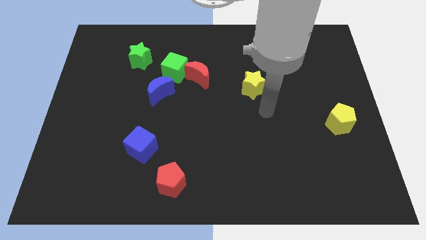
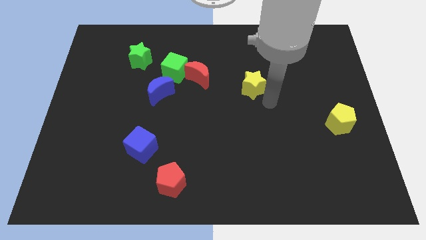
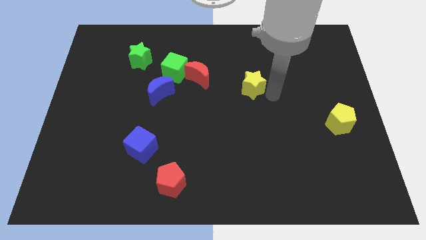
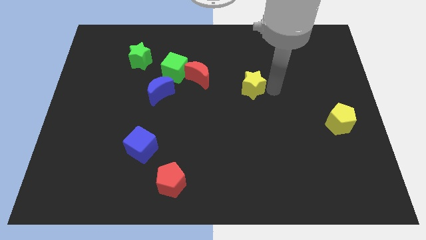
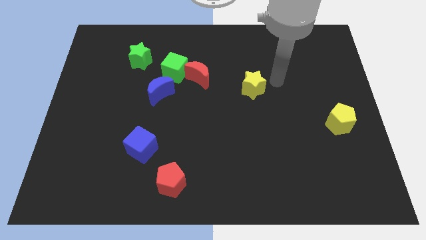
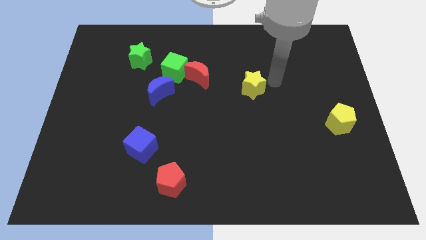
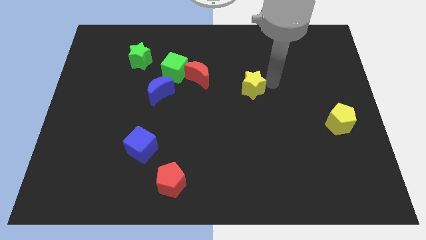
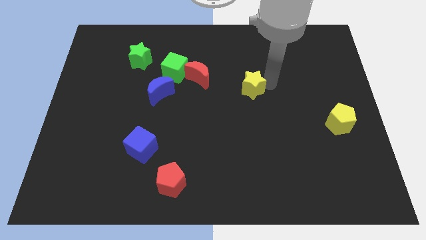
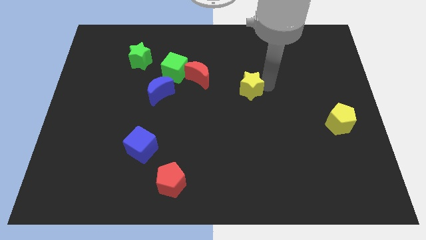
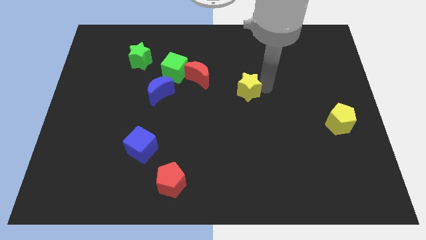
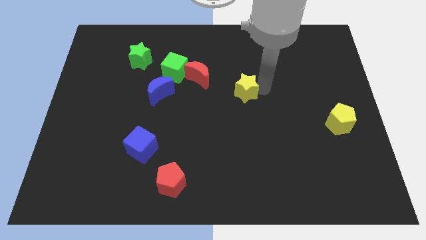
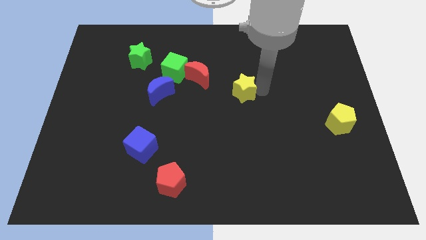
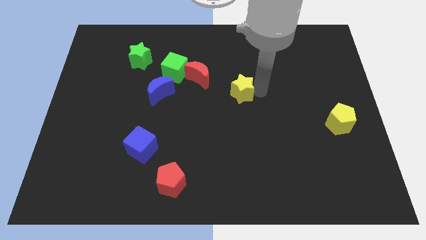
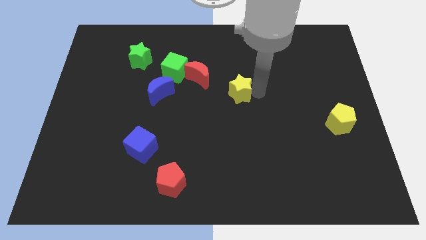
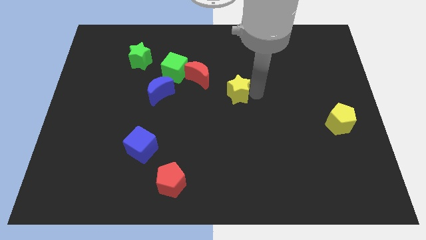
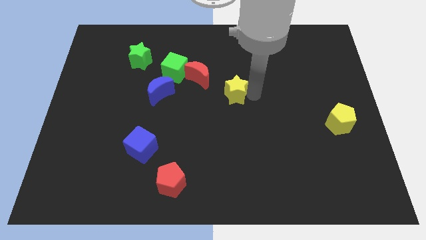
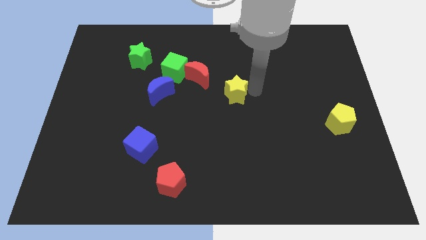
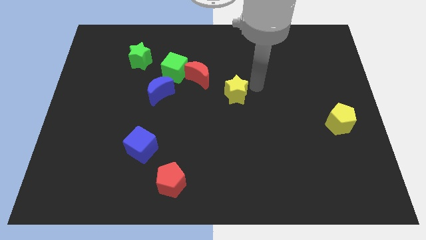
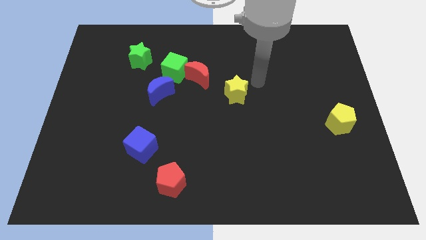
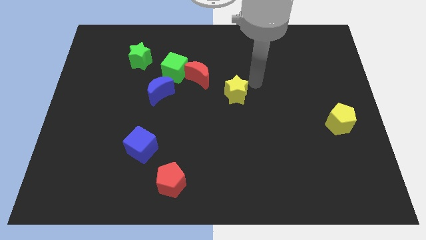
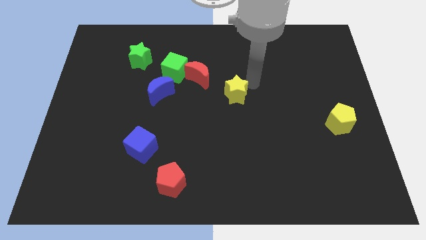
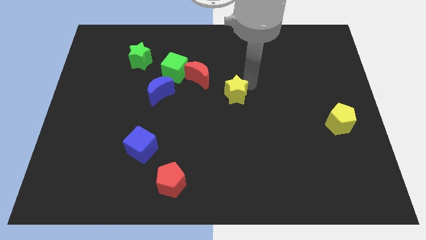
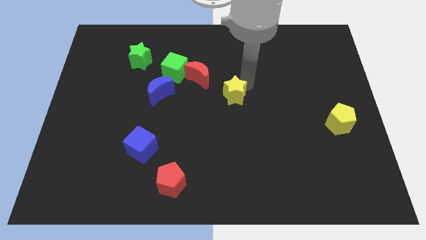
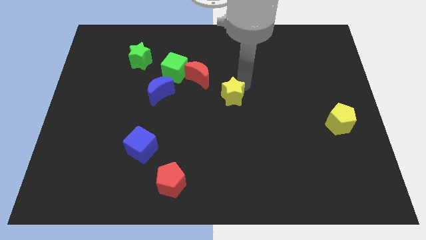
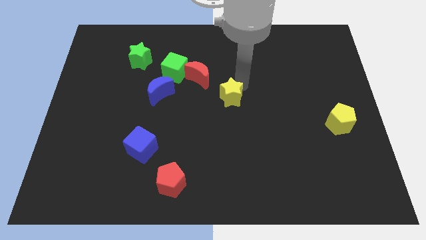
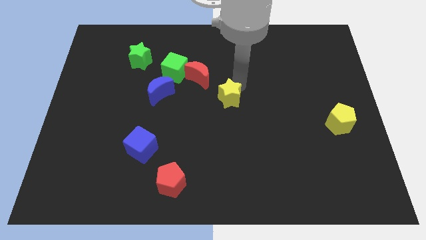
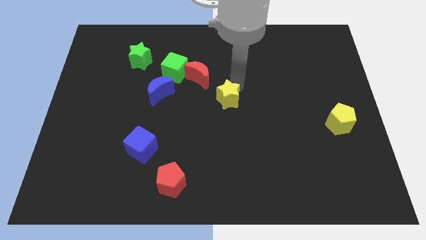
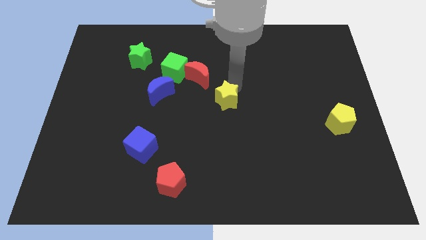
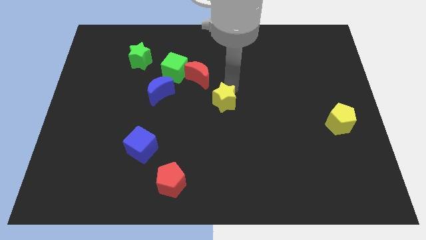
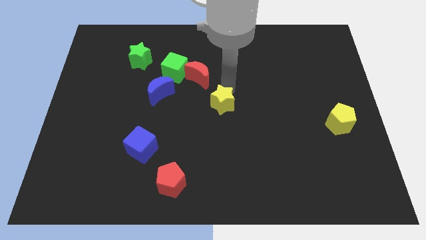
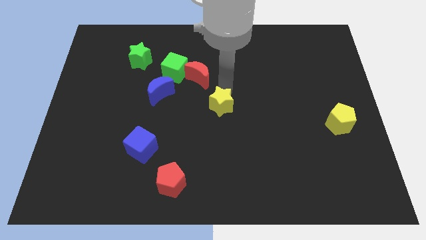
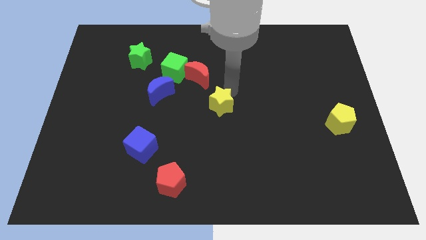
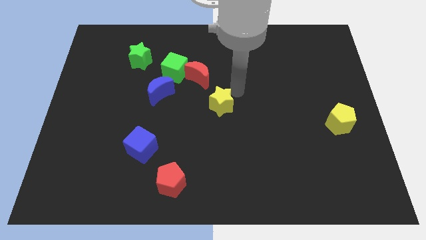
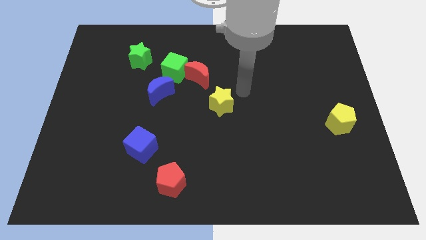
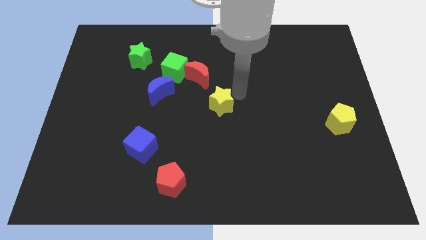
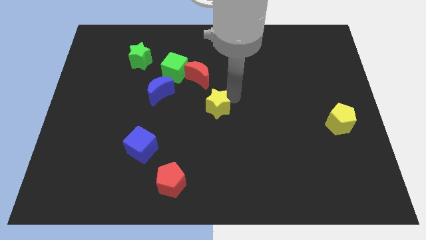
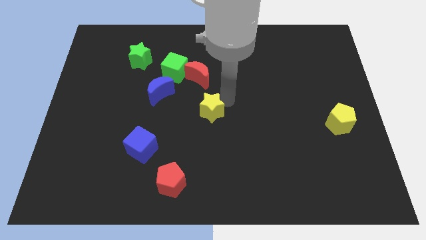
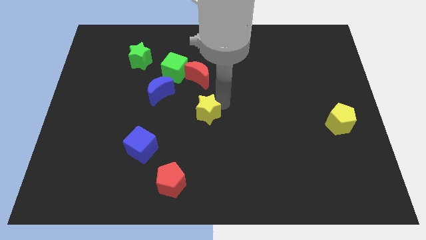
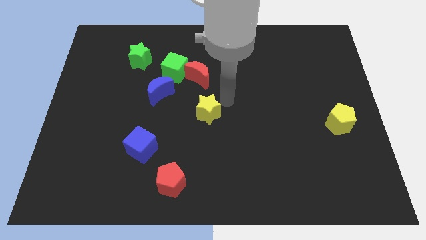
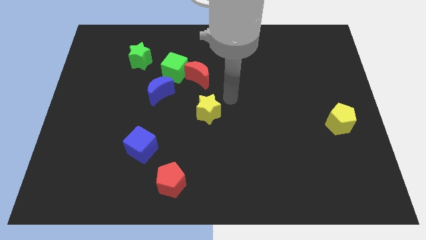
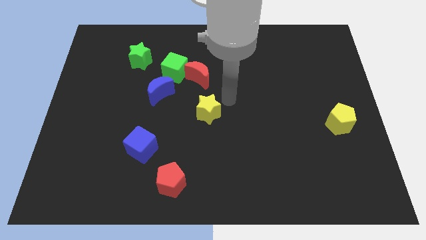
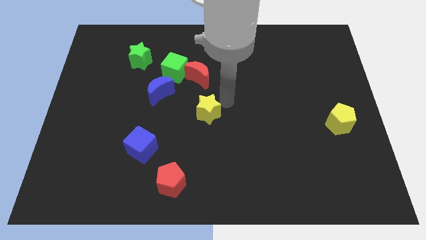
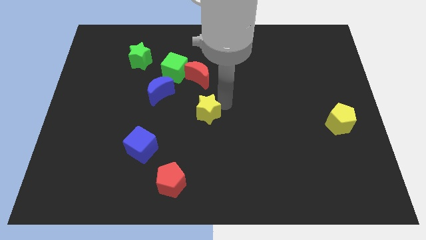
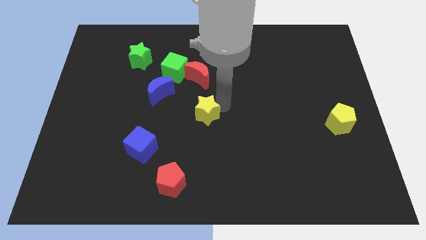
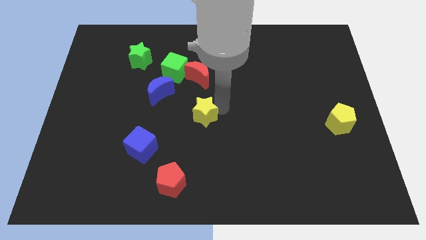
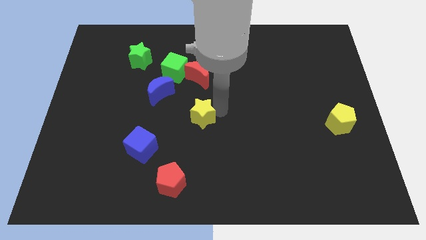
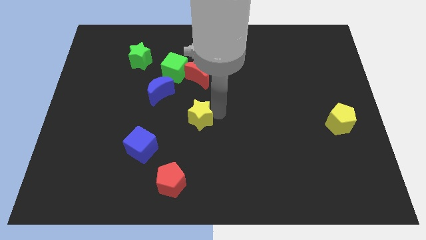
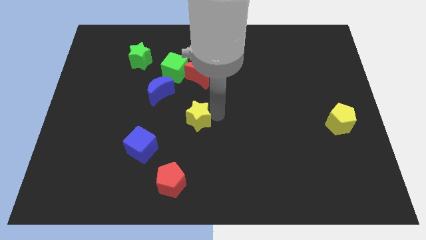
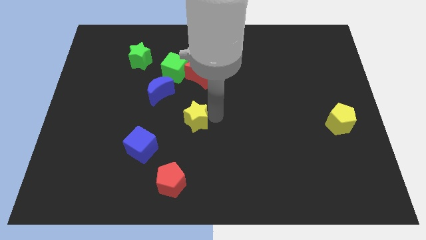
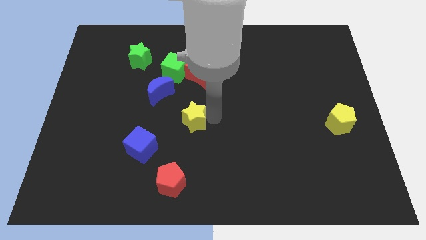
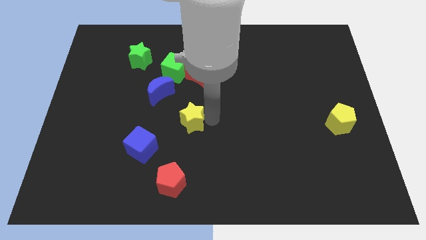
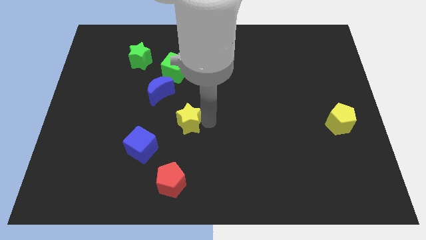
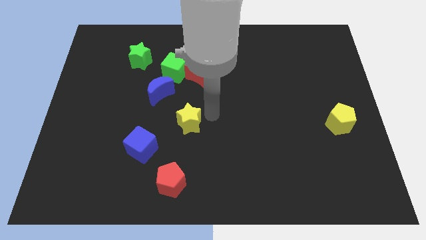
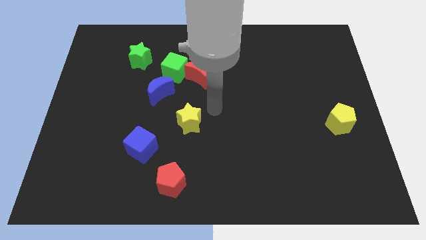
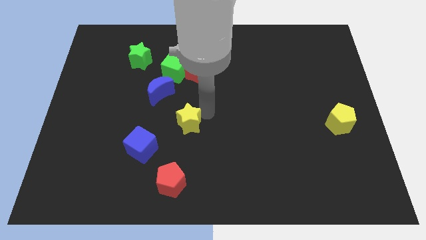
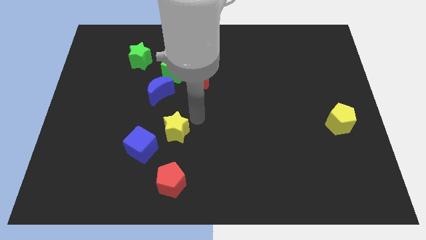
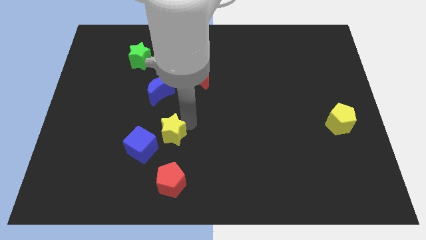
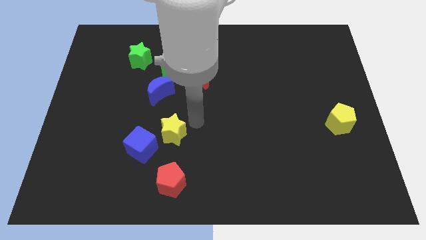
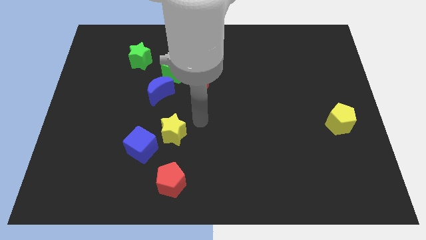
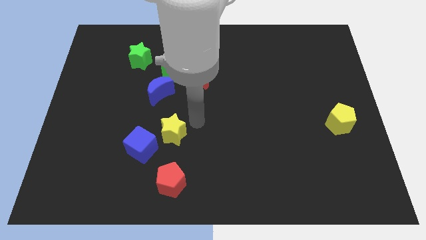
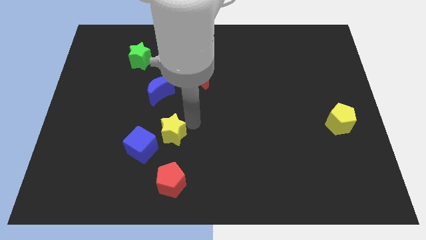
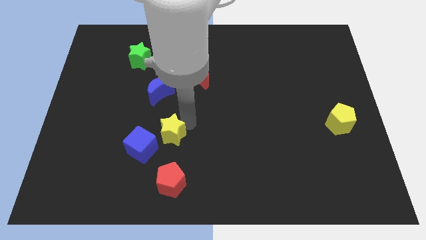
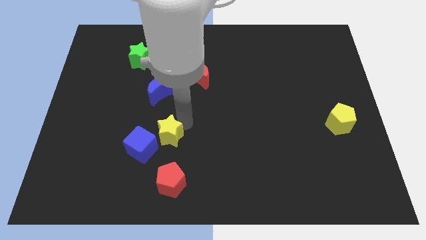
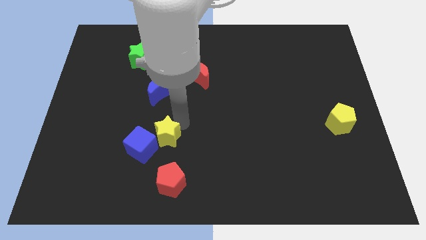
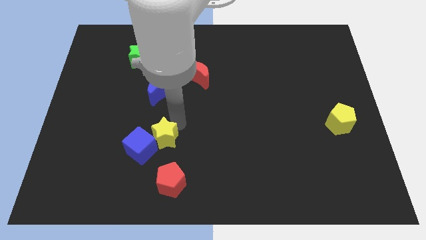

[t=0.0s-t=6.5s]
slide the yellow star to the blue cube

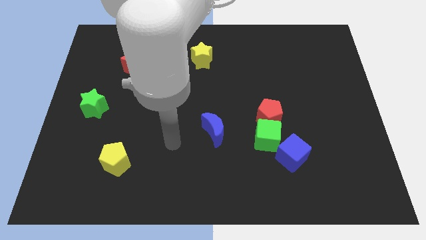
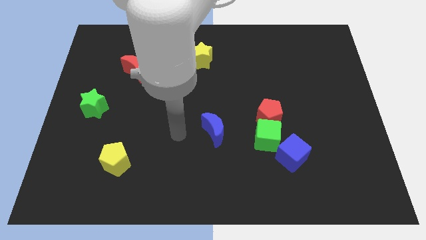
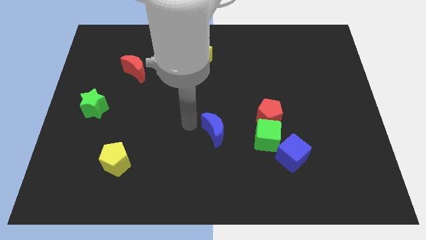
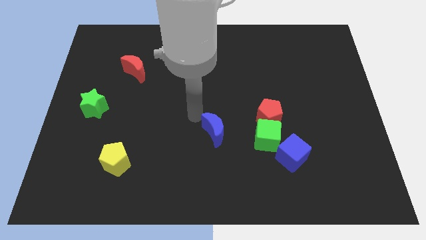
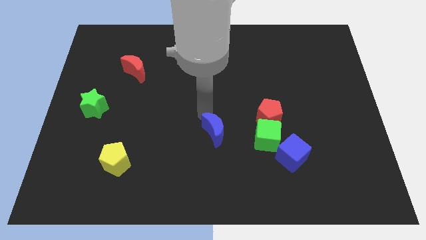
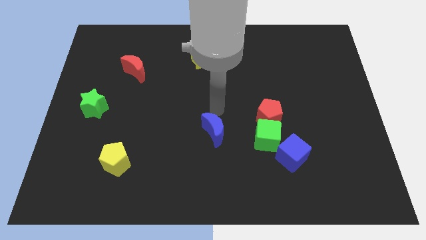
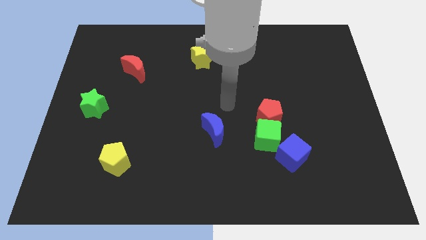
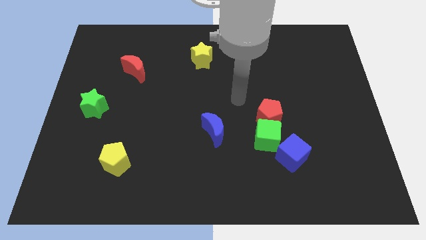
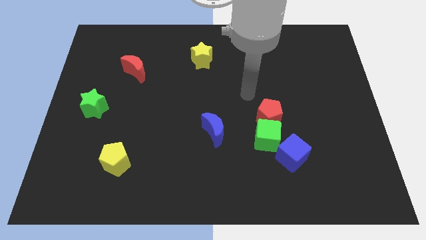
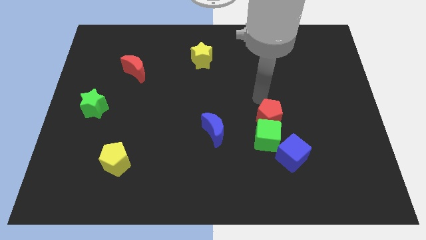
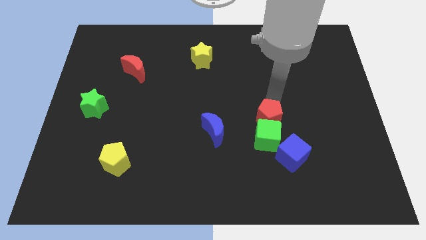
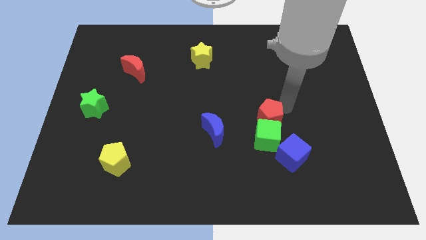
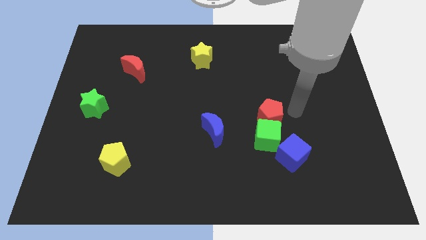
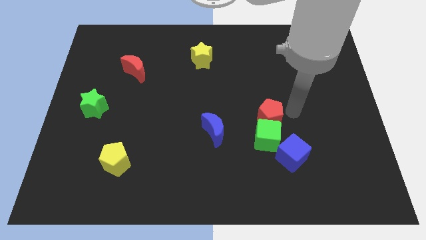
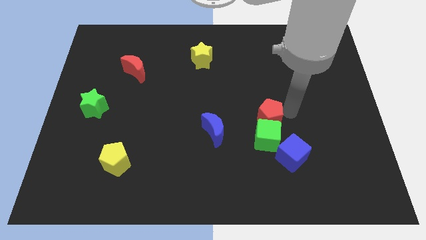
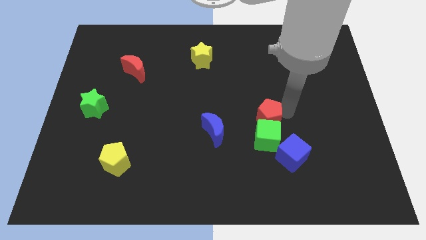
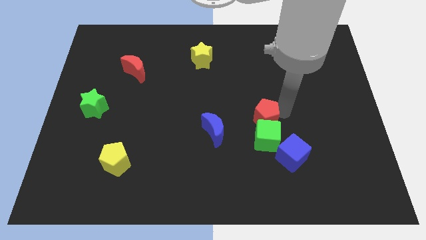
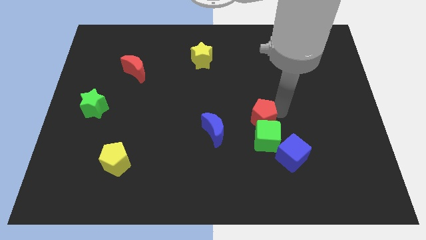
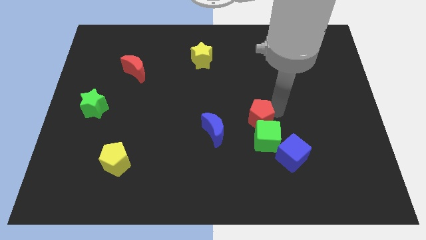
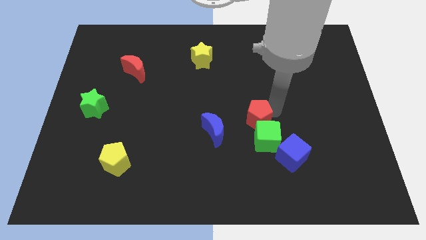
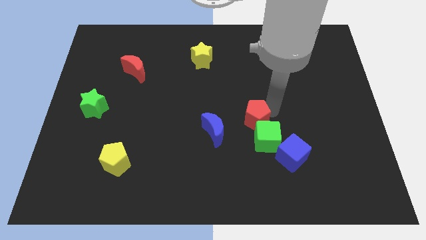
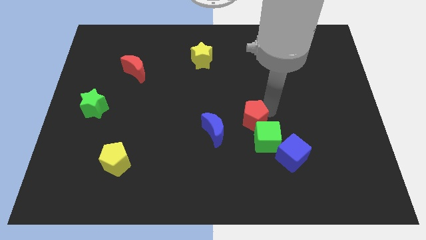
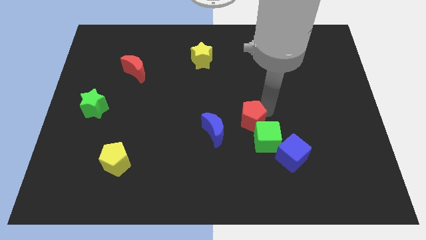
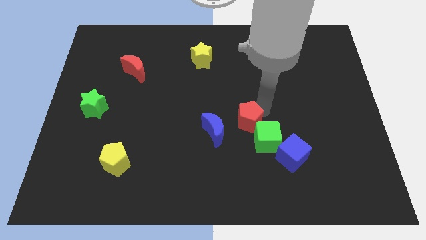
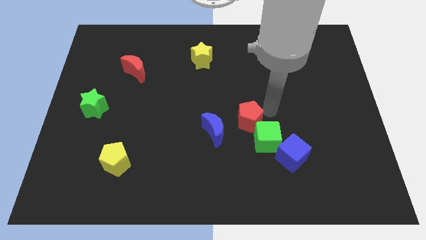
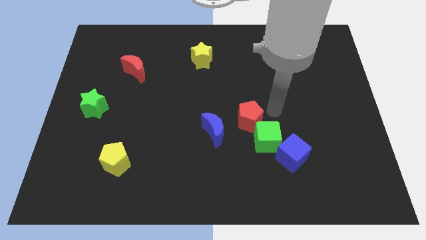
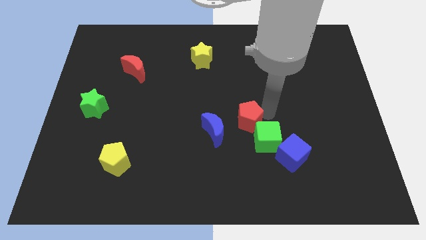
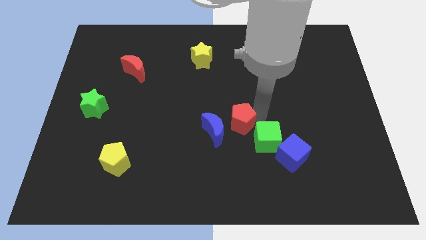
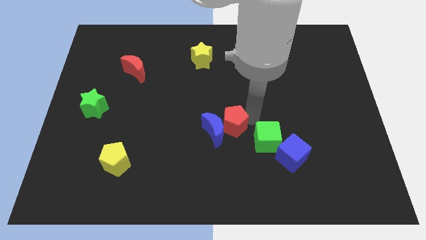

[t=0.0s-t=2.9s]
put the red pentagon next to the blue moon
